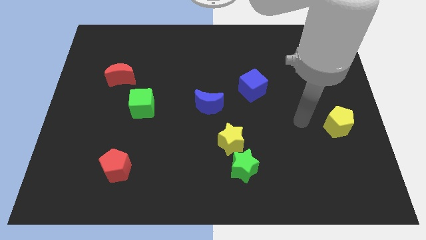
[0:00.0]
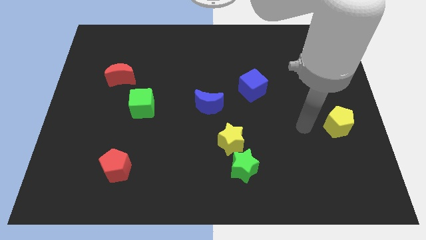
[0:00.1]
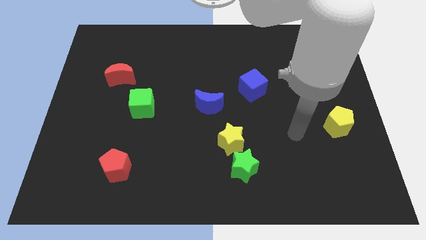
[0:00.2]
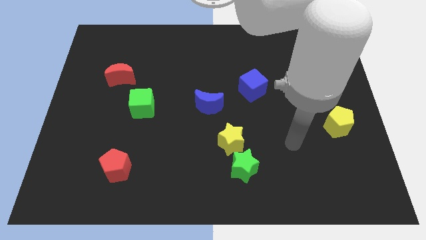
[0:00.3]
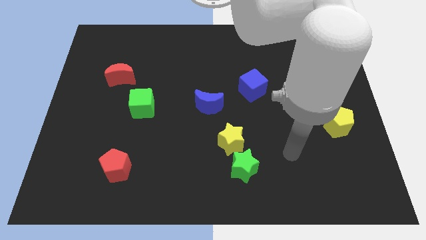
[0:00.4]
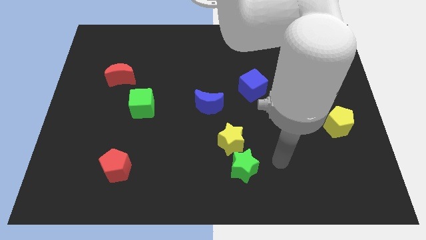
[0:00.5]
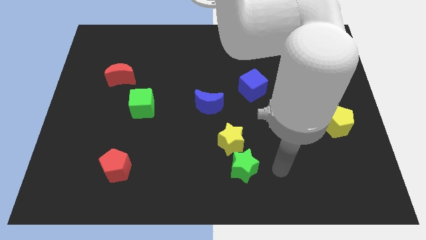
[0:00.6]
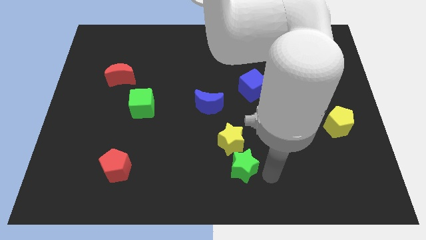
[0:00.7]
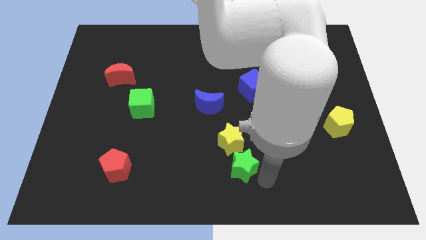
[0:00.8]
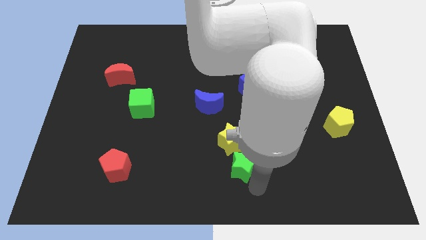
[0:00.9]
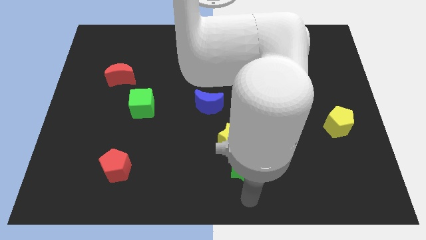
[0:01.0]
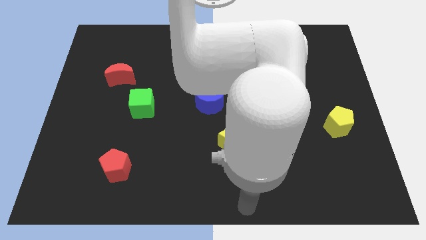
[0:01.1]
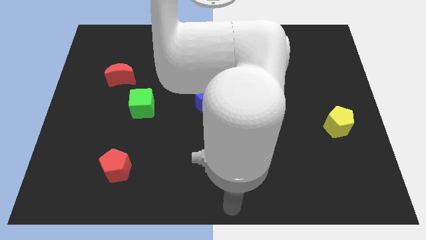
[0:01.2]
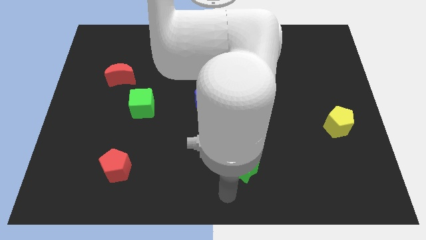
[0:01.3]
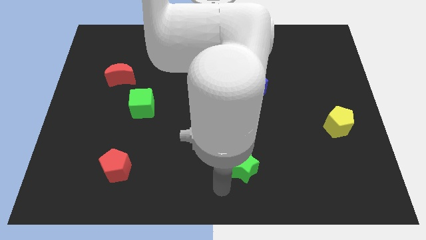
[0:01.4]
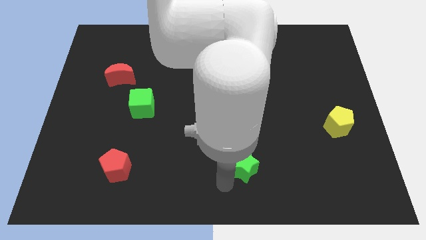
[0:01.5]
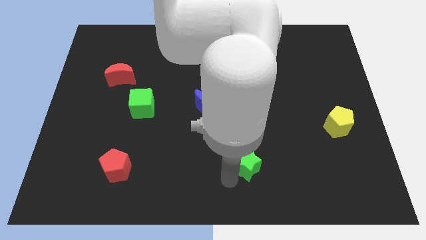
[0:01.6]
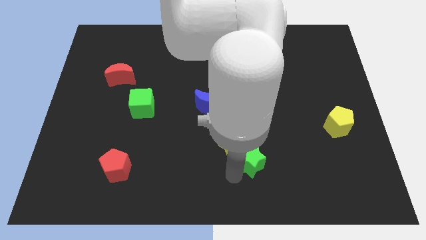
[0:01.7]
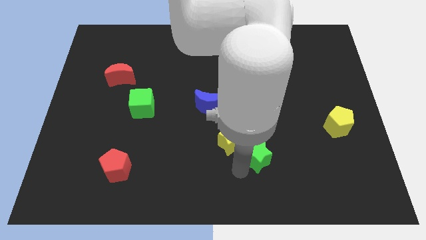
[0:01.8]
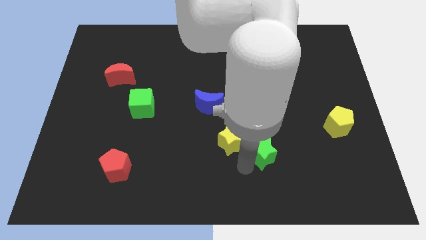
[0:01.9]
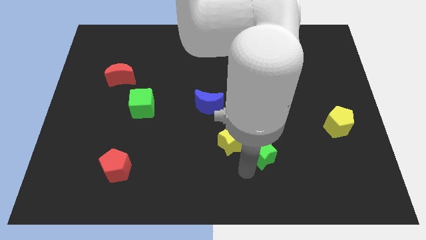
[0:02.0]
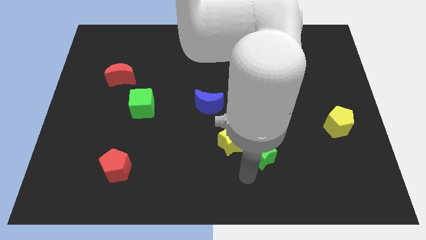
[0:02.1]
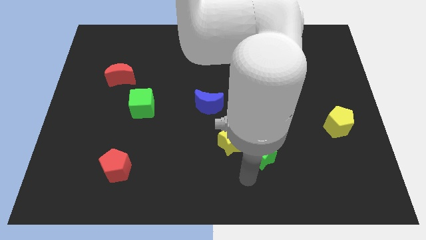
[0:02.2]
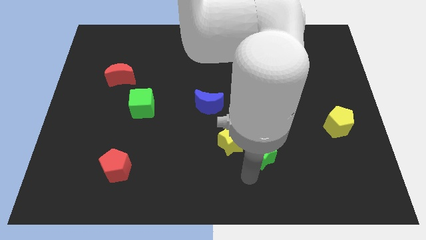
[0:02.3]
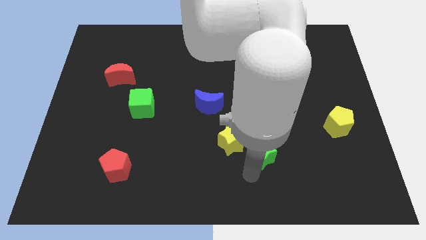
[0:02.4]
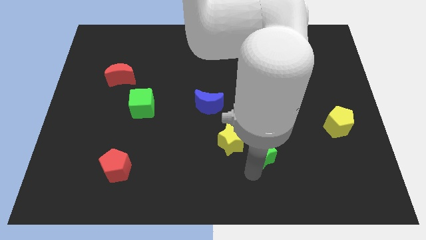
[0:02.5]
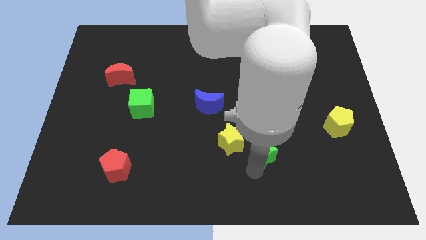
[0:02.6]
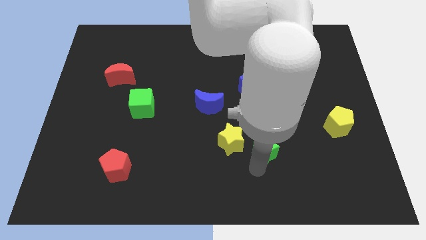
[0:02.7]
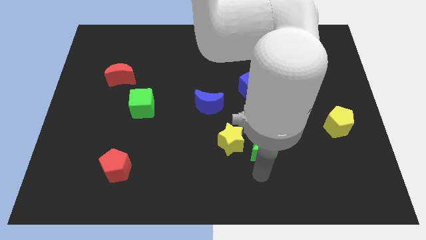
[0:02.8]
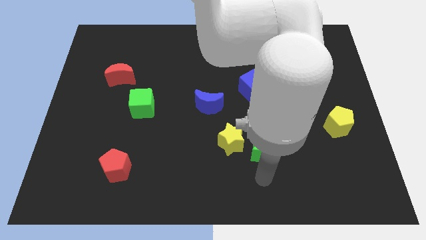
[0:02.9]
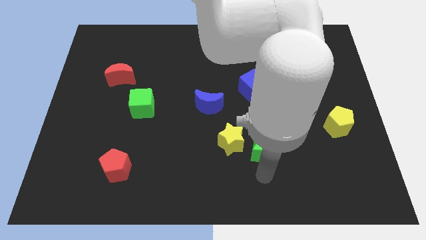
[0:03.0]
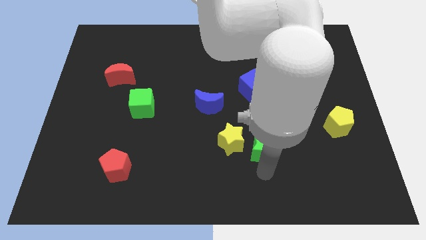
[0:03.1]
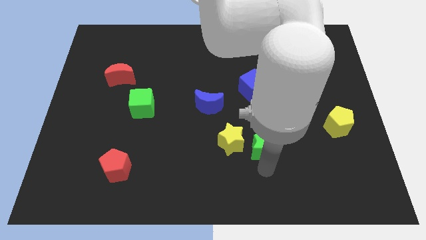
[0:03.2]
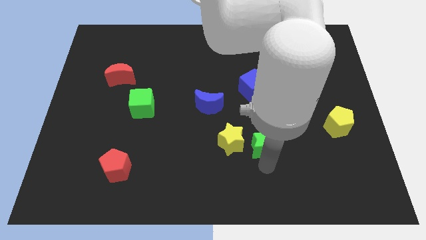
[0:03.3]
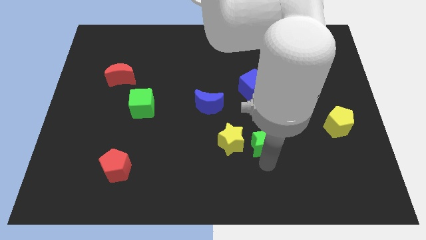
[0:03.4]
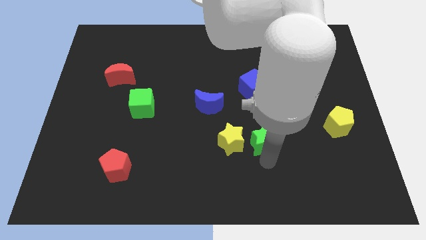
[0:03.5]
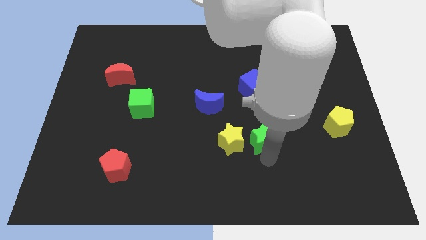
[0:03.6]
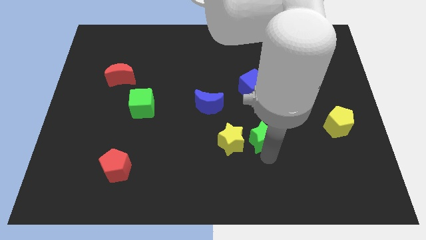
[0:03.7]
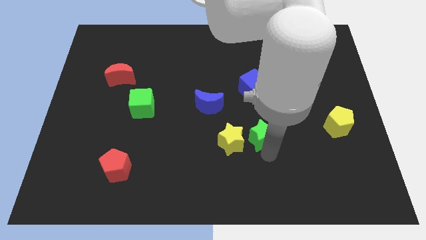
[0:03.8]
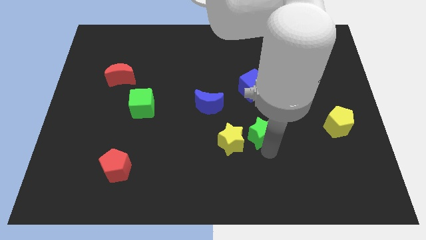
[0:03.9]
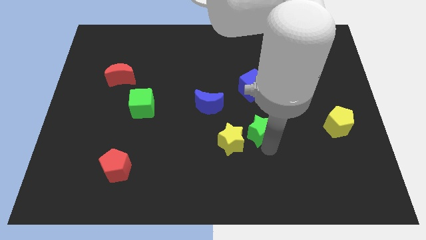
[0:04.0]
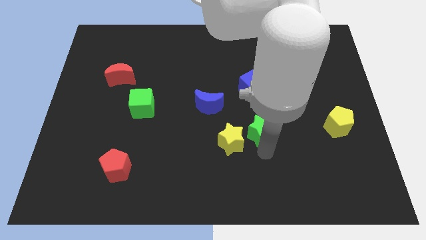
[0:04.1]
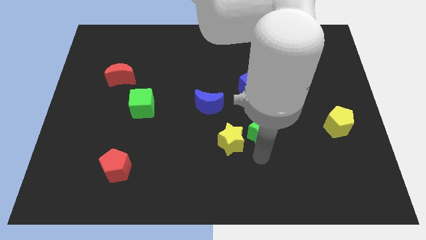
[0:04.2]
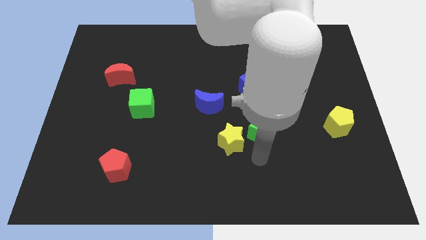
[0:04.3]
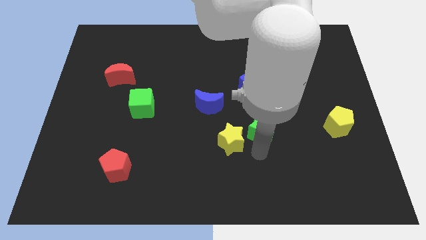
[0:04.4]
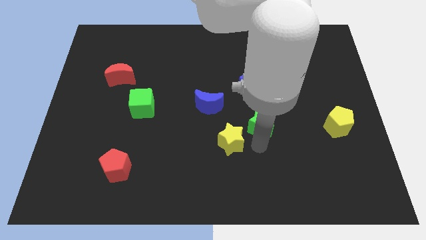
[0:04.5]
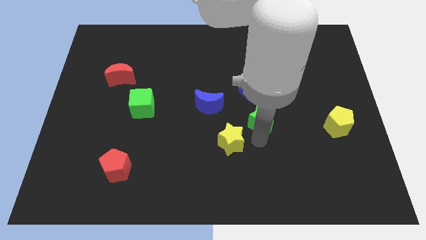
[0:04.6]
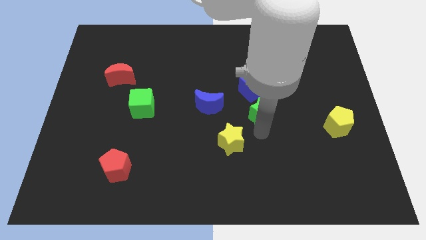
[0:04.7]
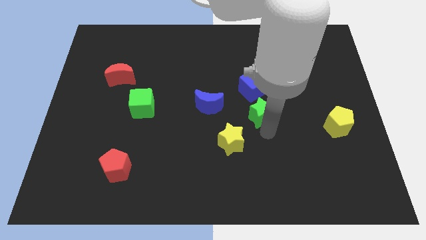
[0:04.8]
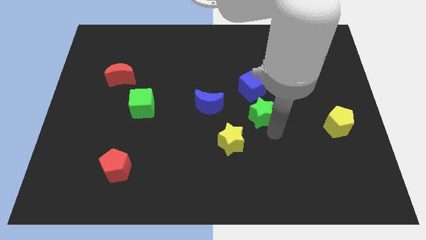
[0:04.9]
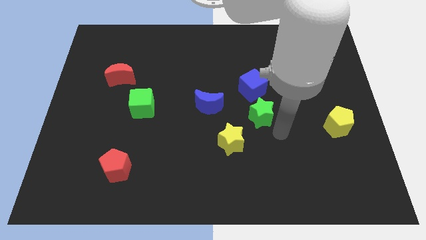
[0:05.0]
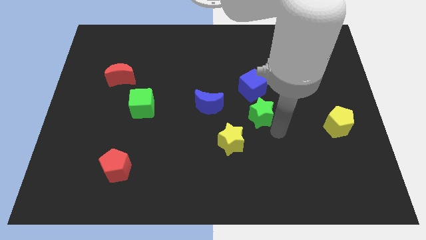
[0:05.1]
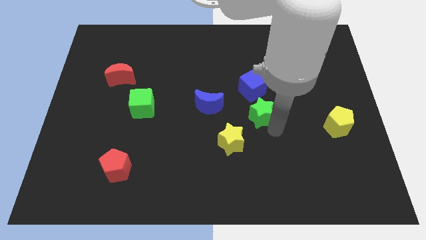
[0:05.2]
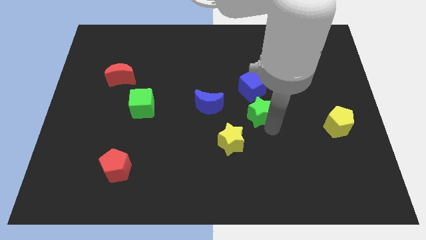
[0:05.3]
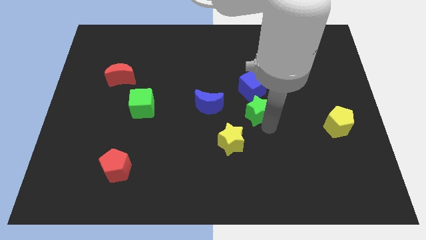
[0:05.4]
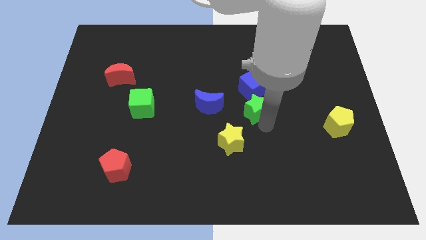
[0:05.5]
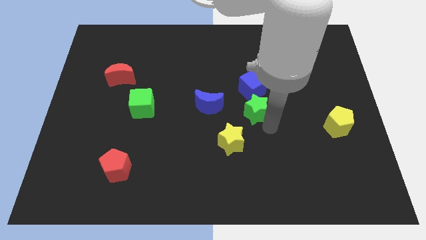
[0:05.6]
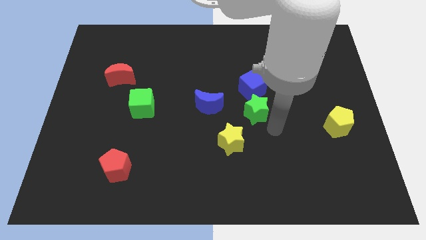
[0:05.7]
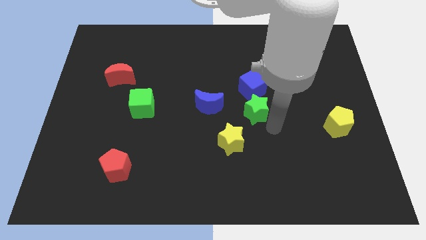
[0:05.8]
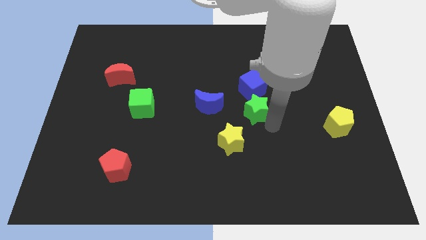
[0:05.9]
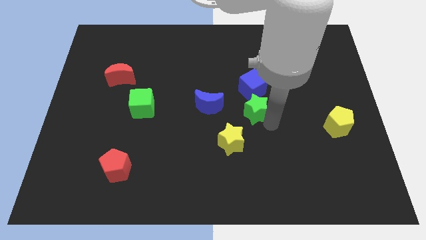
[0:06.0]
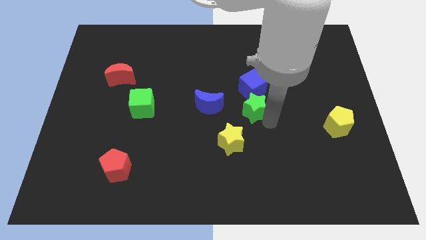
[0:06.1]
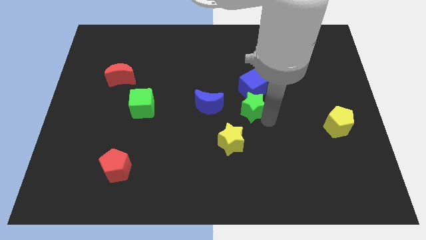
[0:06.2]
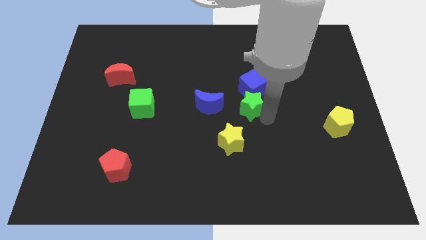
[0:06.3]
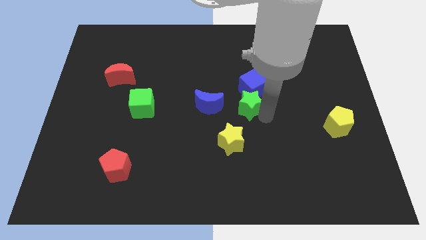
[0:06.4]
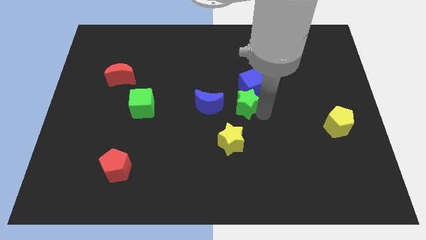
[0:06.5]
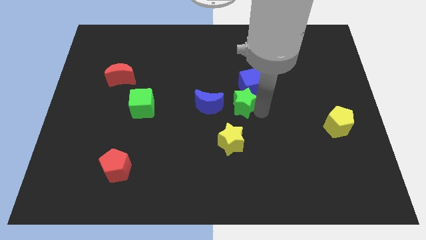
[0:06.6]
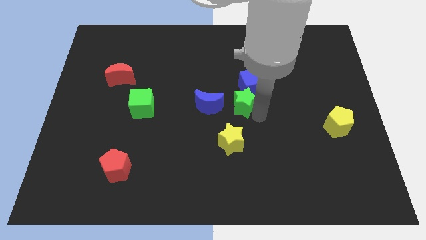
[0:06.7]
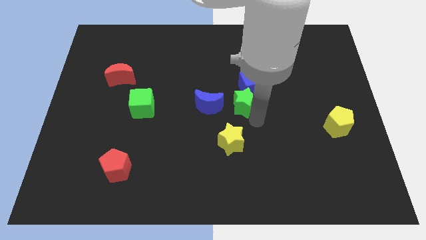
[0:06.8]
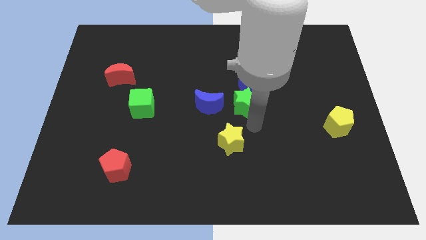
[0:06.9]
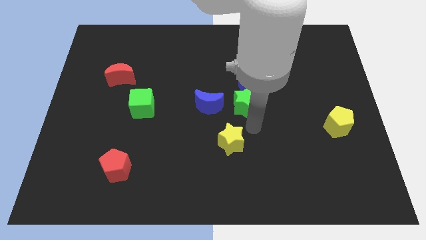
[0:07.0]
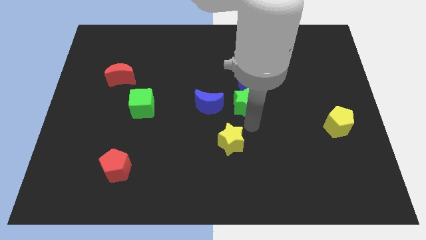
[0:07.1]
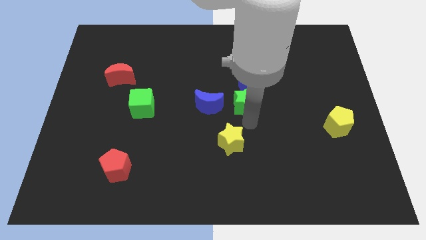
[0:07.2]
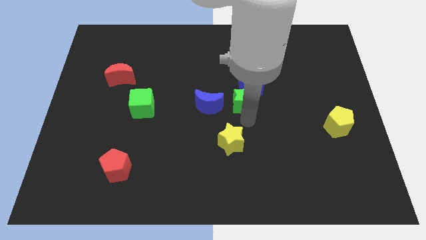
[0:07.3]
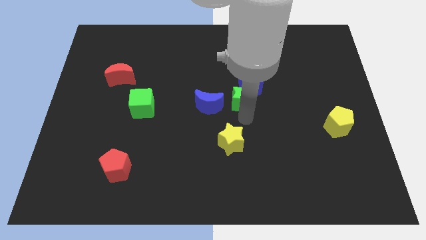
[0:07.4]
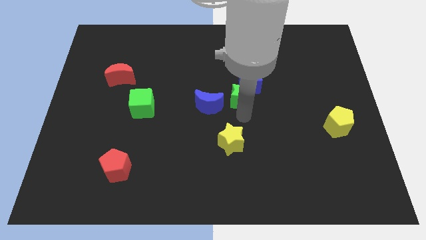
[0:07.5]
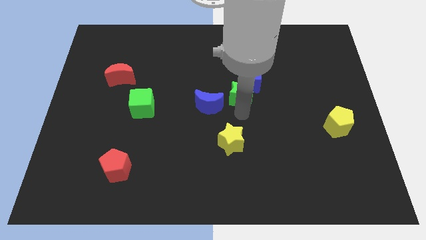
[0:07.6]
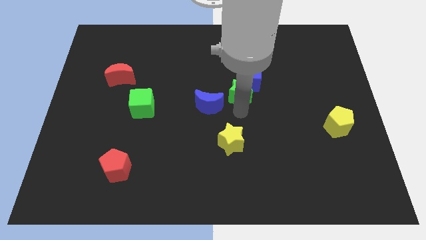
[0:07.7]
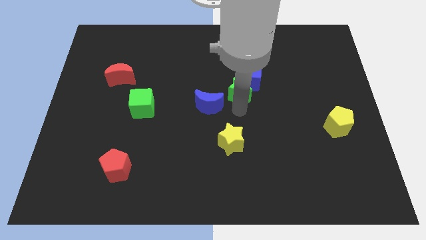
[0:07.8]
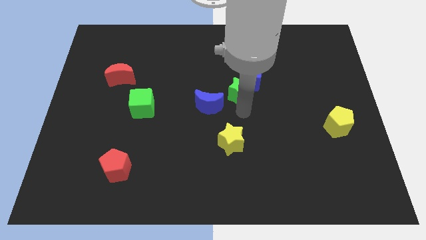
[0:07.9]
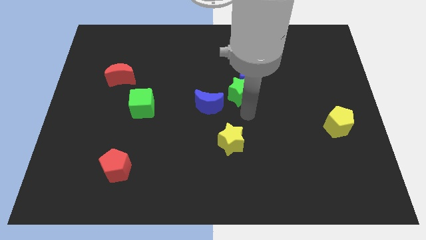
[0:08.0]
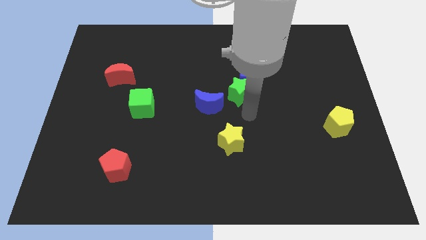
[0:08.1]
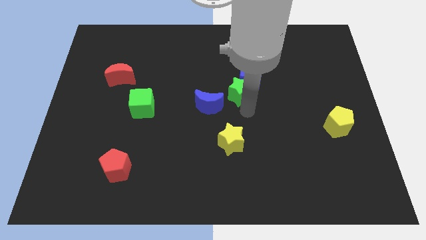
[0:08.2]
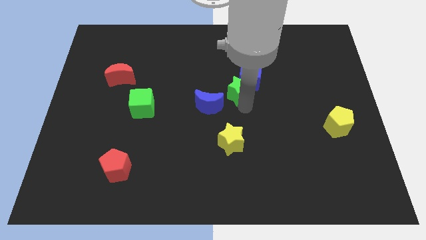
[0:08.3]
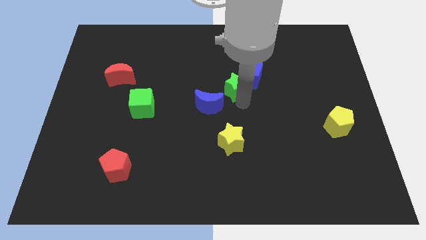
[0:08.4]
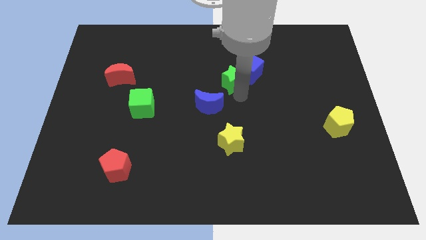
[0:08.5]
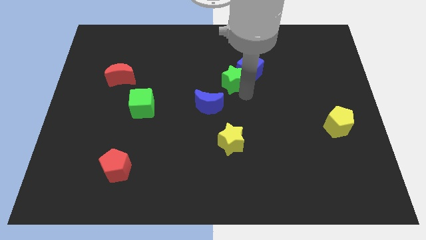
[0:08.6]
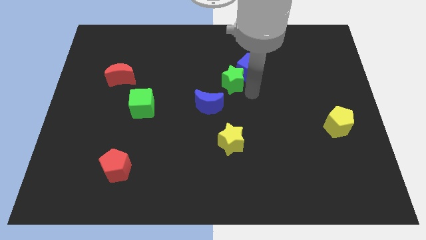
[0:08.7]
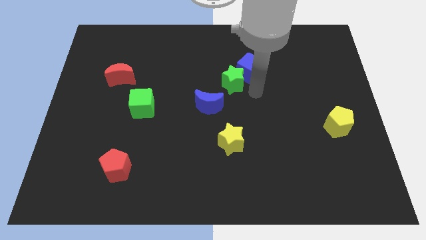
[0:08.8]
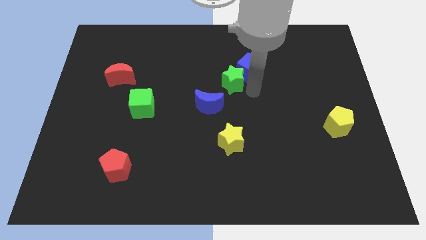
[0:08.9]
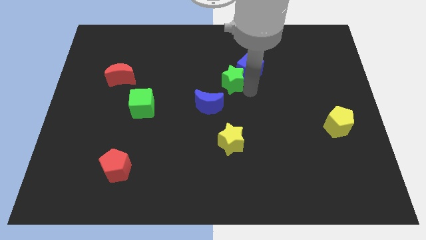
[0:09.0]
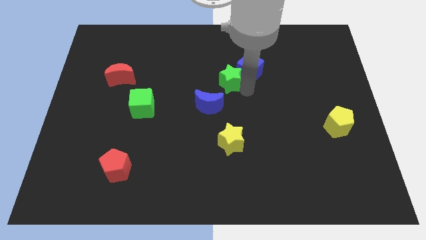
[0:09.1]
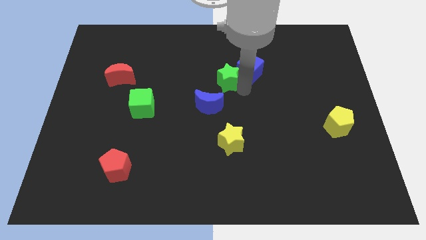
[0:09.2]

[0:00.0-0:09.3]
slide the green star to the top of the blue moon
